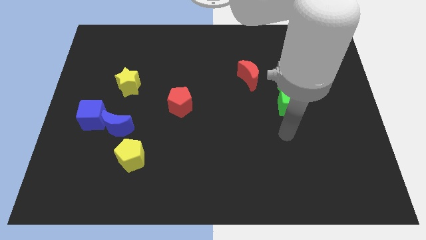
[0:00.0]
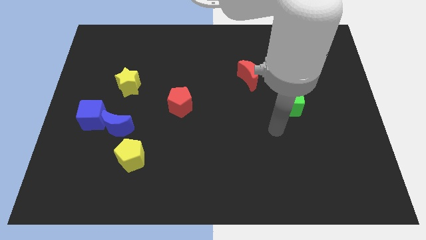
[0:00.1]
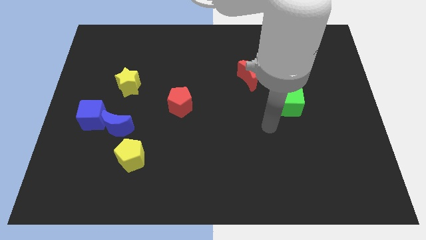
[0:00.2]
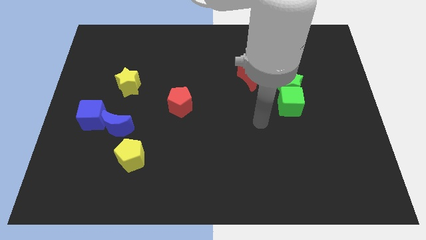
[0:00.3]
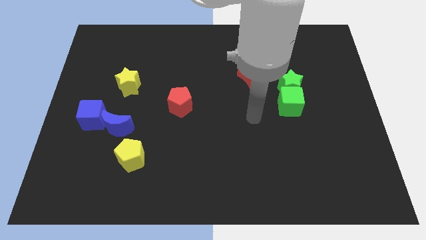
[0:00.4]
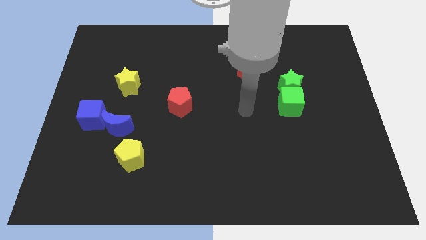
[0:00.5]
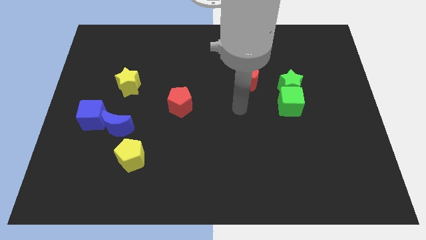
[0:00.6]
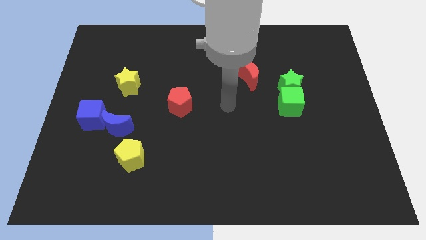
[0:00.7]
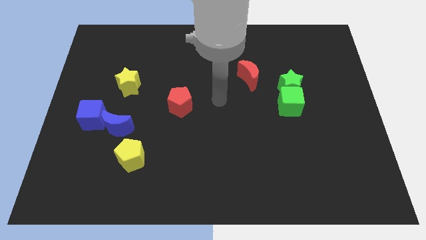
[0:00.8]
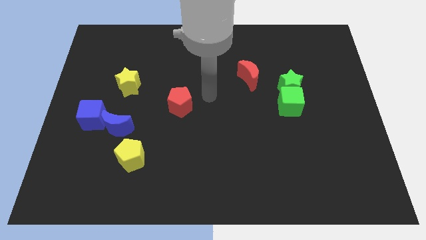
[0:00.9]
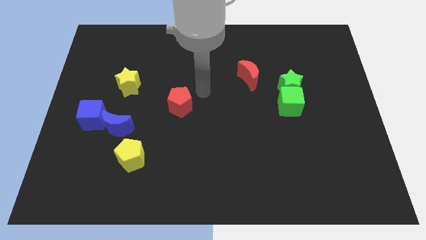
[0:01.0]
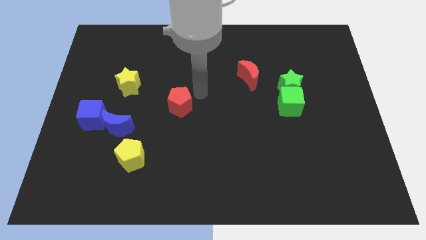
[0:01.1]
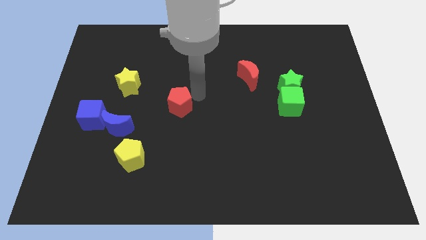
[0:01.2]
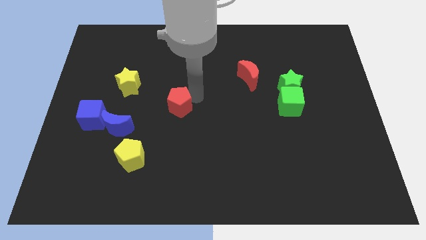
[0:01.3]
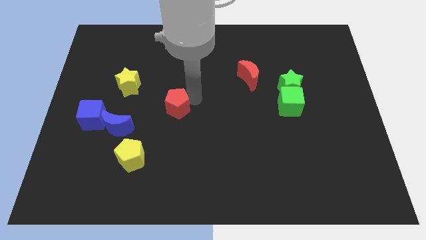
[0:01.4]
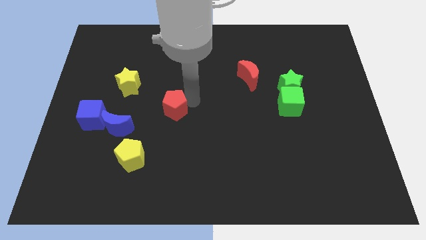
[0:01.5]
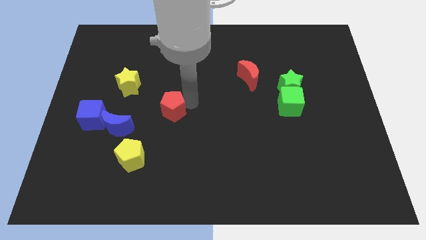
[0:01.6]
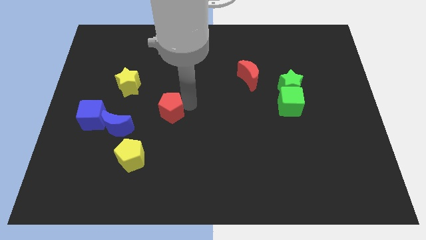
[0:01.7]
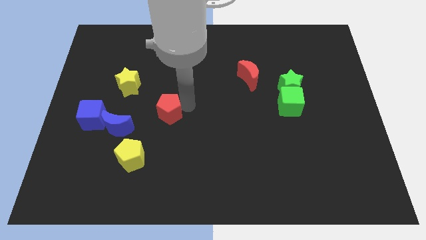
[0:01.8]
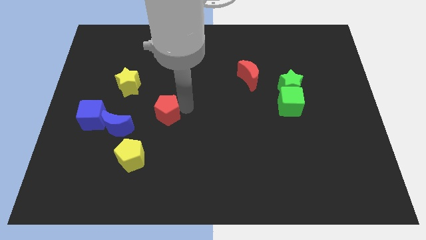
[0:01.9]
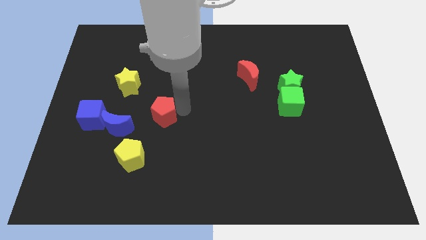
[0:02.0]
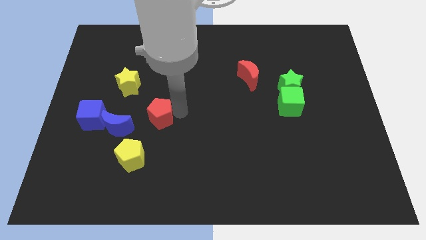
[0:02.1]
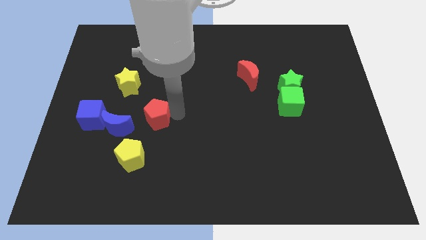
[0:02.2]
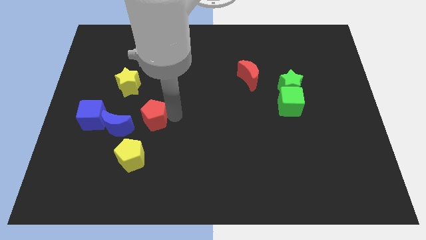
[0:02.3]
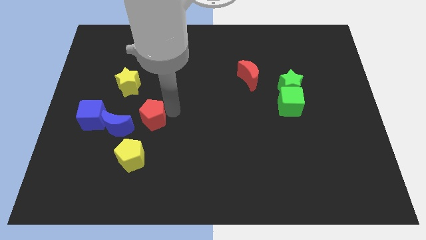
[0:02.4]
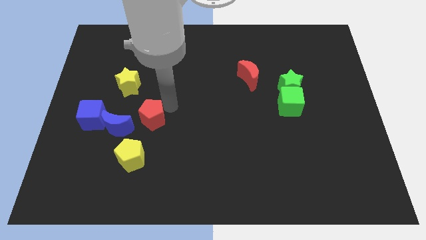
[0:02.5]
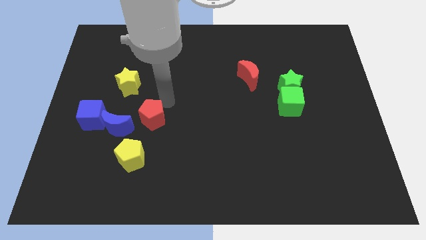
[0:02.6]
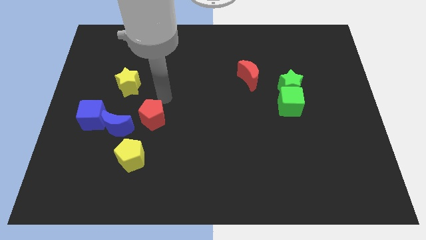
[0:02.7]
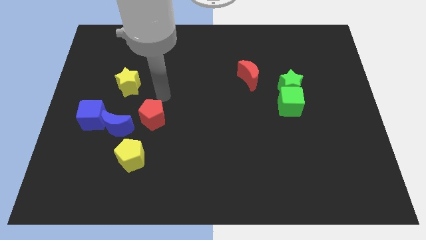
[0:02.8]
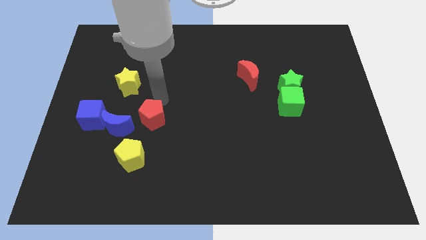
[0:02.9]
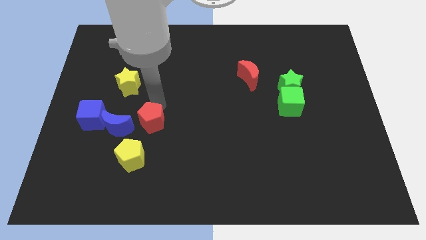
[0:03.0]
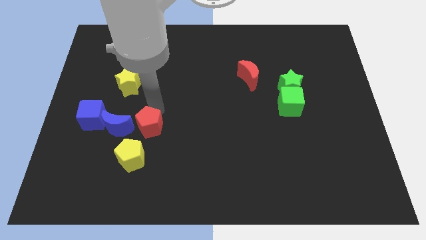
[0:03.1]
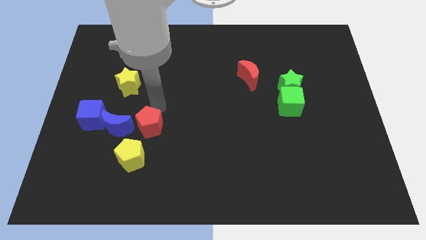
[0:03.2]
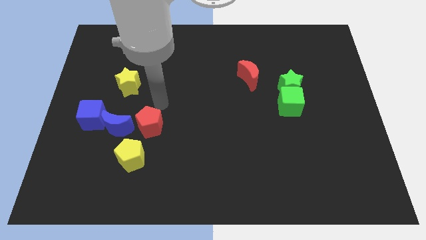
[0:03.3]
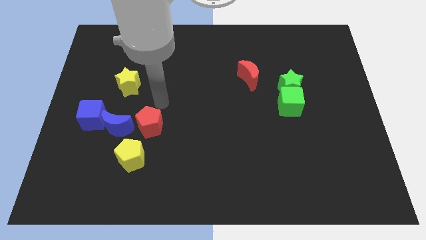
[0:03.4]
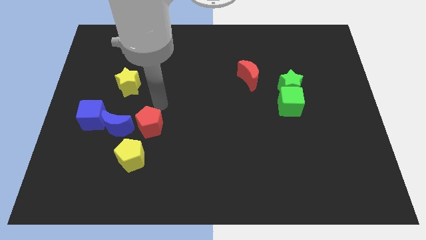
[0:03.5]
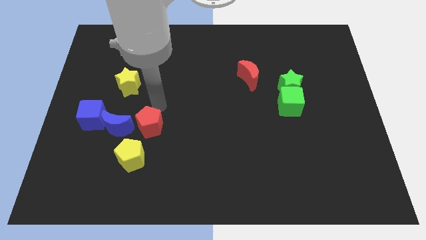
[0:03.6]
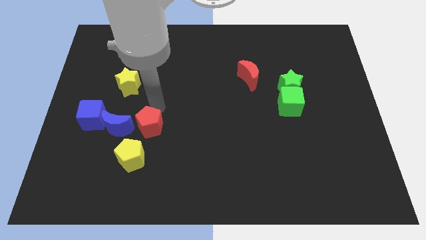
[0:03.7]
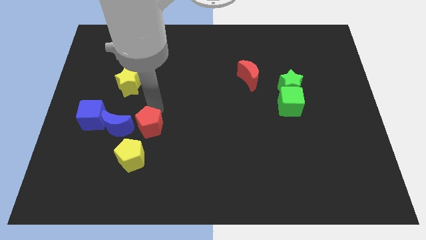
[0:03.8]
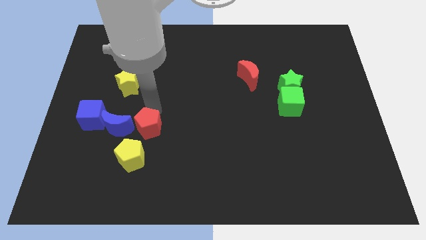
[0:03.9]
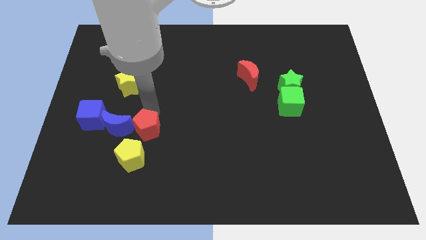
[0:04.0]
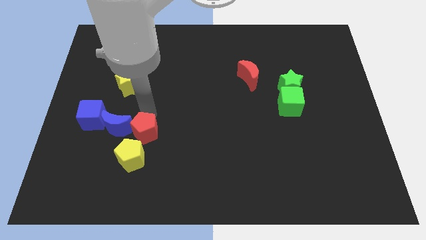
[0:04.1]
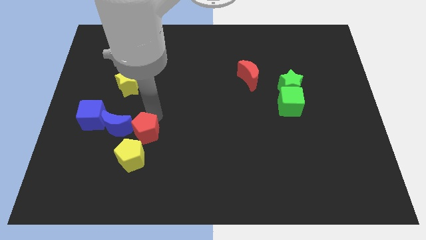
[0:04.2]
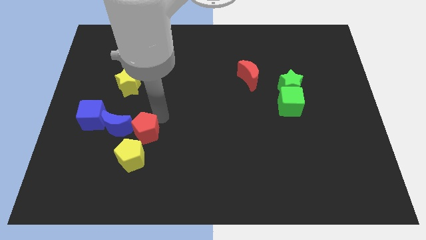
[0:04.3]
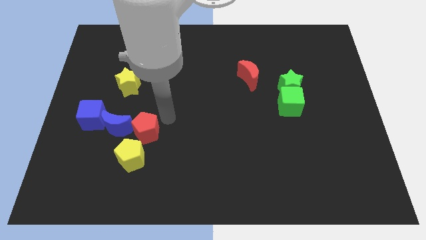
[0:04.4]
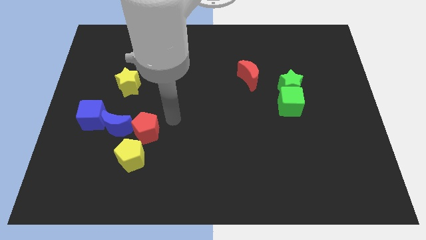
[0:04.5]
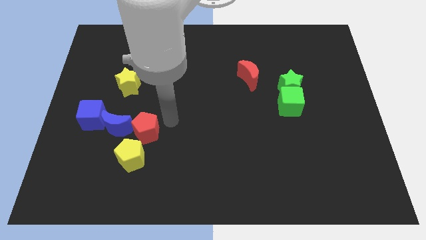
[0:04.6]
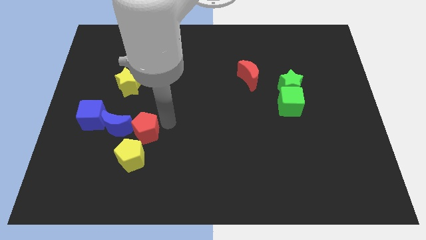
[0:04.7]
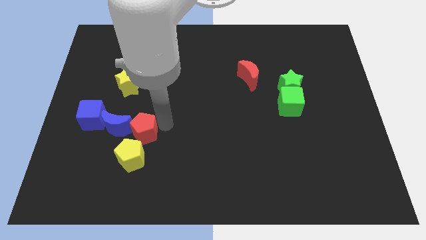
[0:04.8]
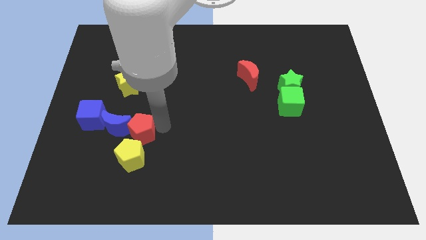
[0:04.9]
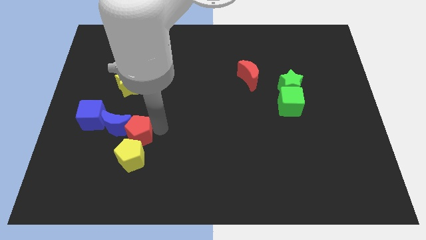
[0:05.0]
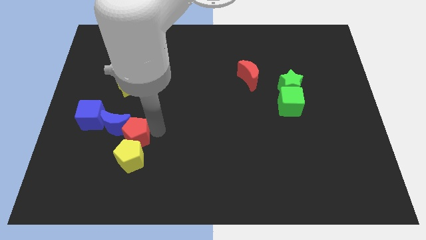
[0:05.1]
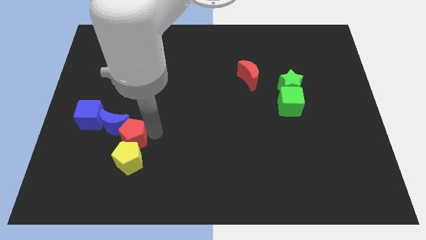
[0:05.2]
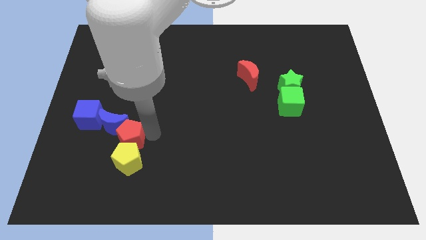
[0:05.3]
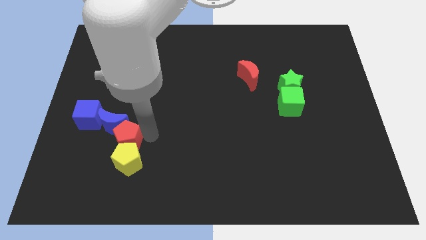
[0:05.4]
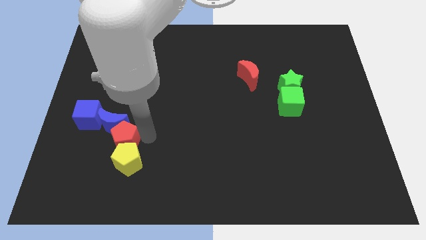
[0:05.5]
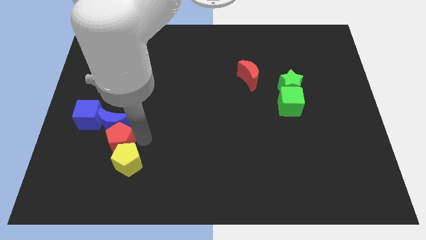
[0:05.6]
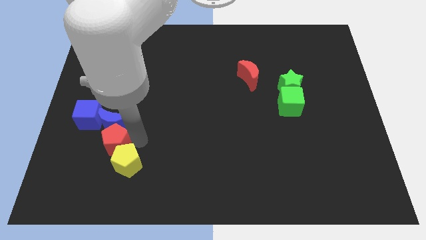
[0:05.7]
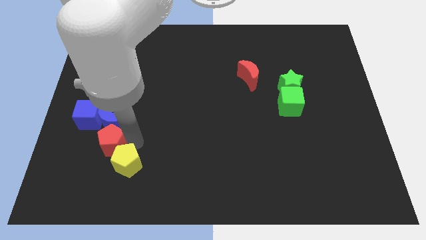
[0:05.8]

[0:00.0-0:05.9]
slide the red pentagon to the left side of the yellow pentagon

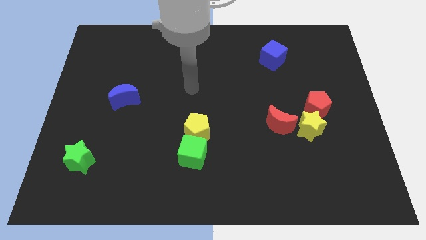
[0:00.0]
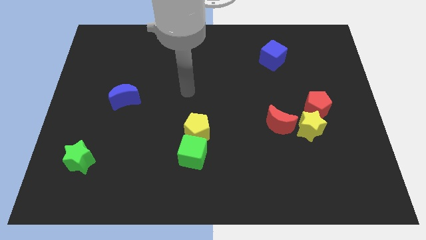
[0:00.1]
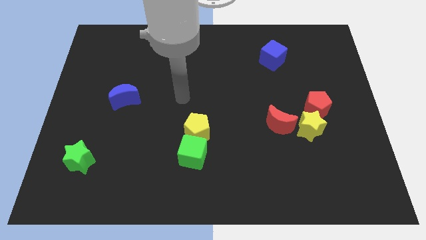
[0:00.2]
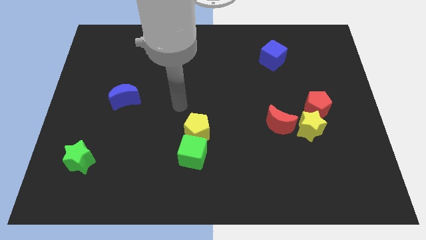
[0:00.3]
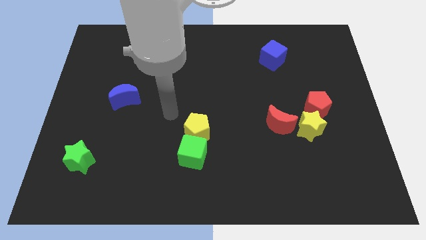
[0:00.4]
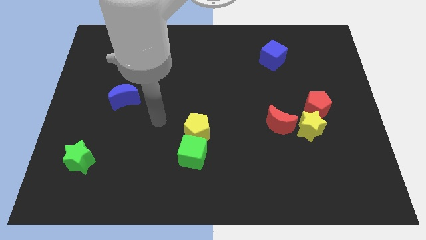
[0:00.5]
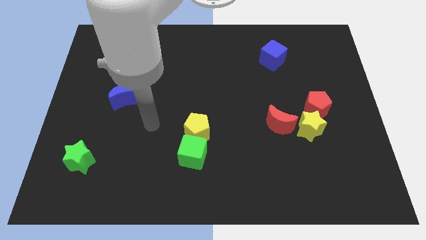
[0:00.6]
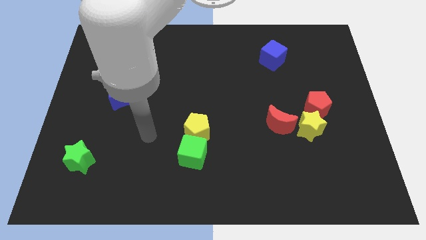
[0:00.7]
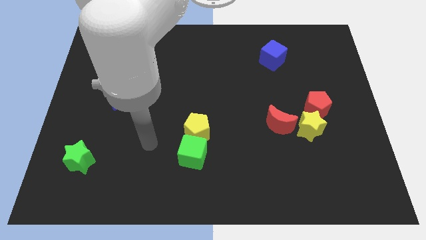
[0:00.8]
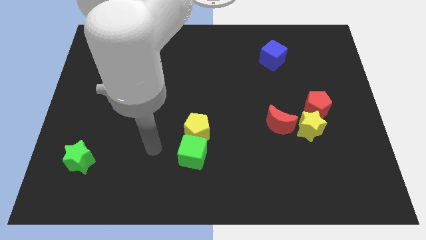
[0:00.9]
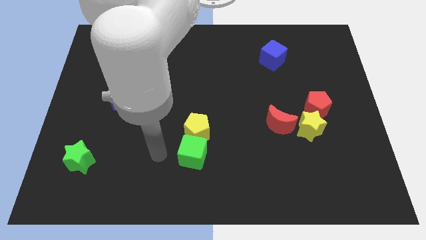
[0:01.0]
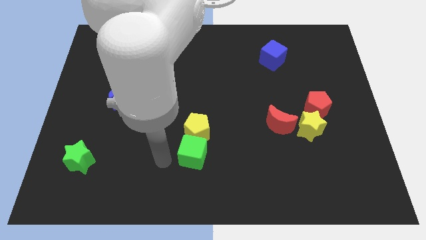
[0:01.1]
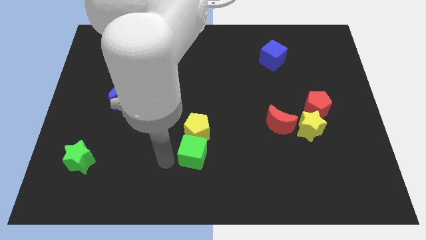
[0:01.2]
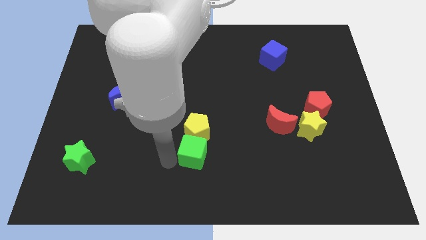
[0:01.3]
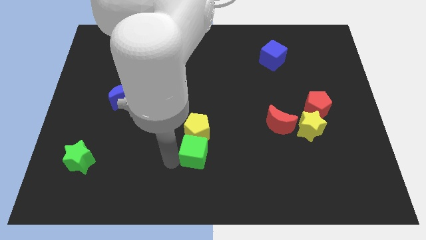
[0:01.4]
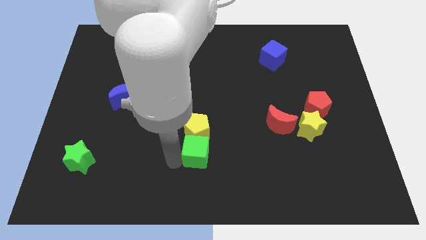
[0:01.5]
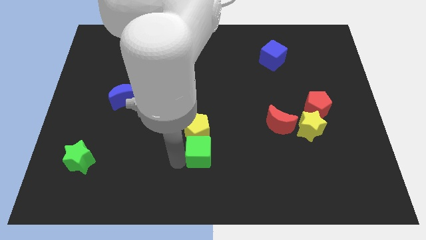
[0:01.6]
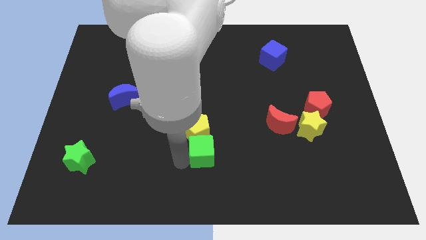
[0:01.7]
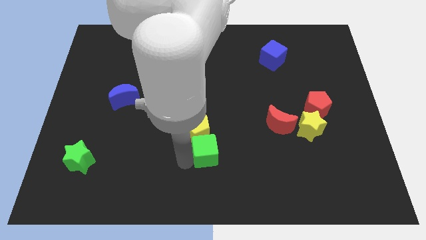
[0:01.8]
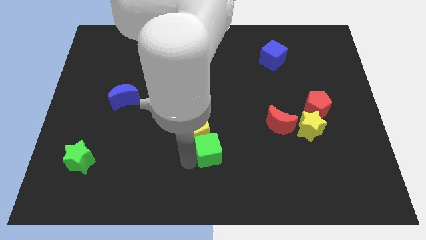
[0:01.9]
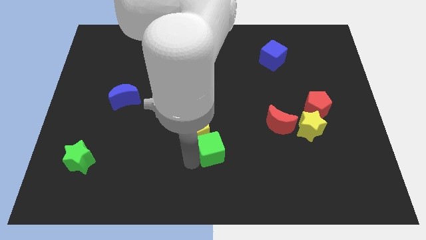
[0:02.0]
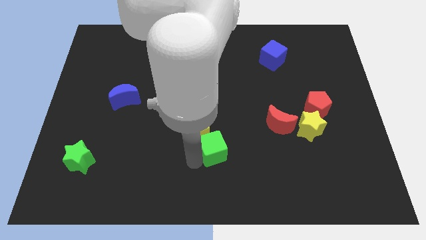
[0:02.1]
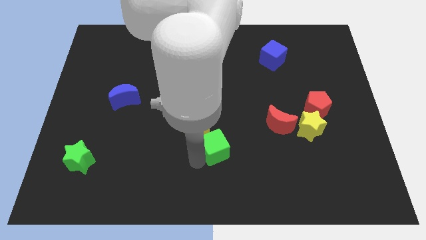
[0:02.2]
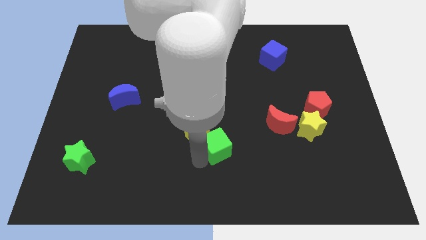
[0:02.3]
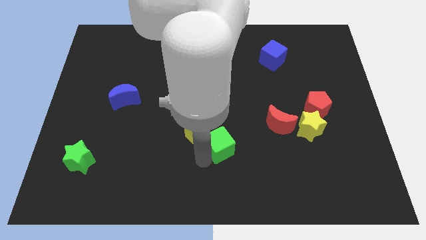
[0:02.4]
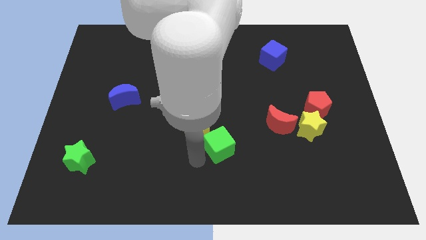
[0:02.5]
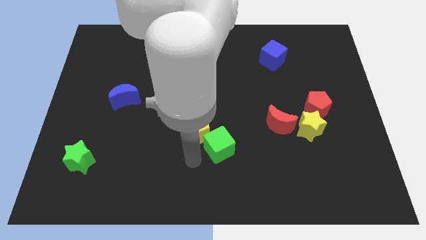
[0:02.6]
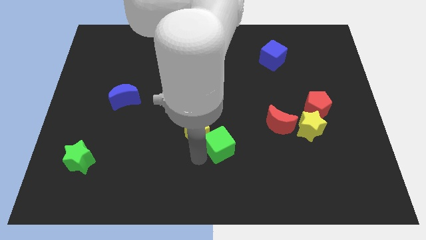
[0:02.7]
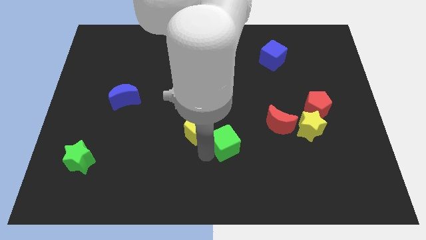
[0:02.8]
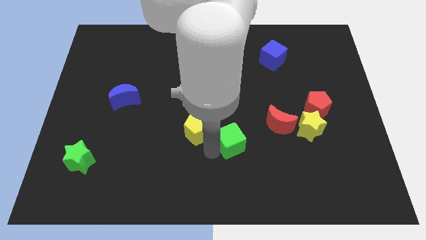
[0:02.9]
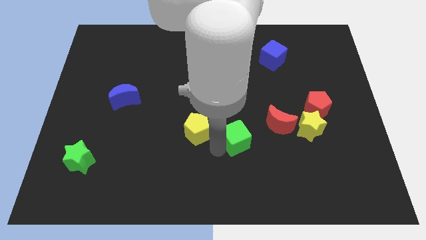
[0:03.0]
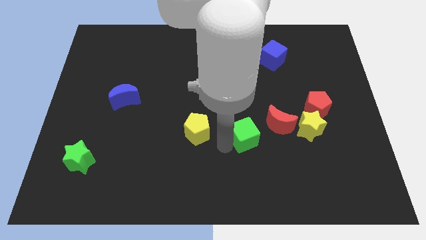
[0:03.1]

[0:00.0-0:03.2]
put the green cube just left of the yellow star
